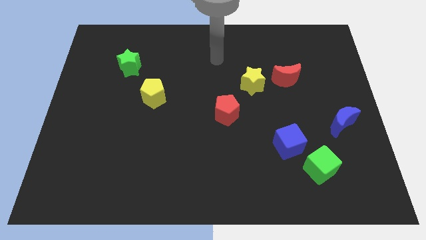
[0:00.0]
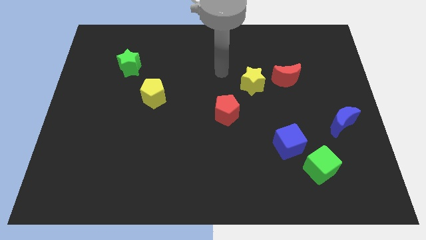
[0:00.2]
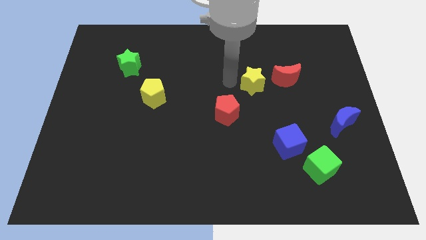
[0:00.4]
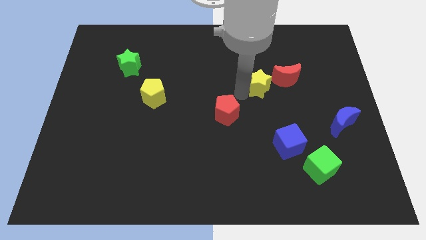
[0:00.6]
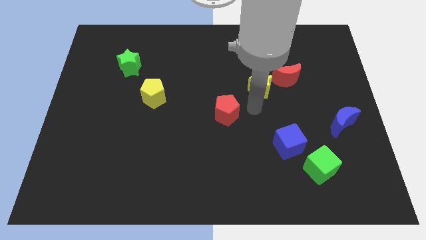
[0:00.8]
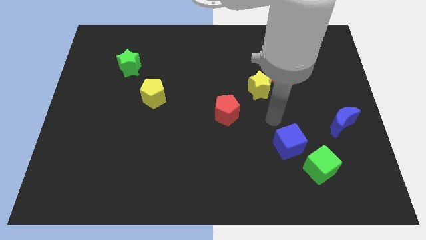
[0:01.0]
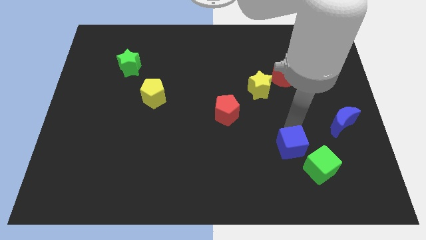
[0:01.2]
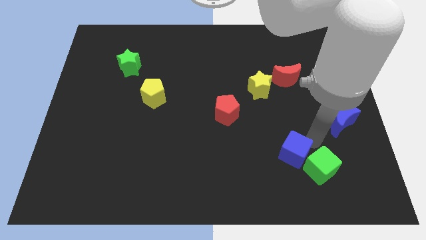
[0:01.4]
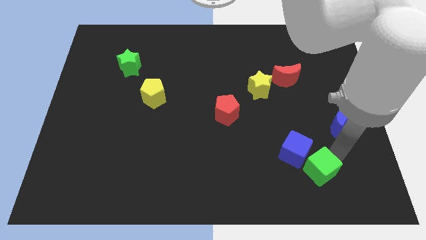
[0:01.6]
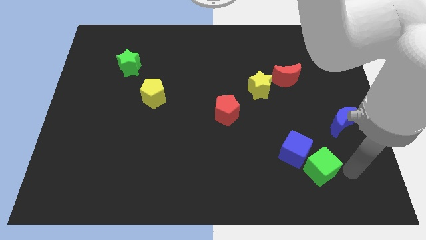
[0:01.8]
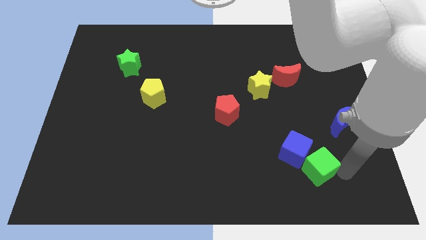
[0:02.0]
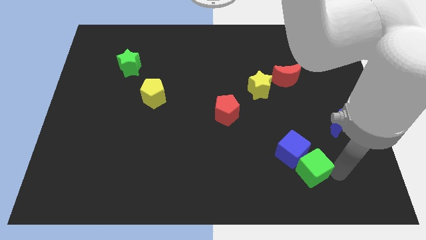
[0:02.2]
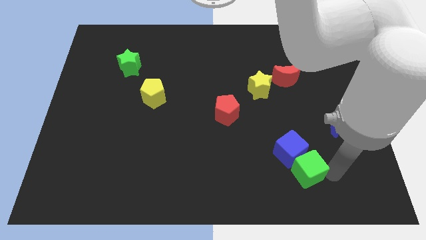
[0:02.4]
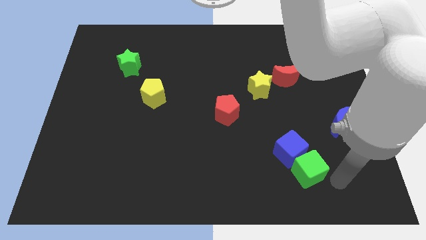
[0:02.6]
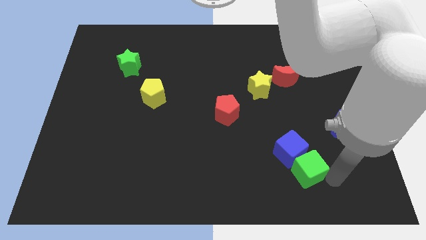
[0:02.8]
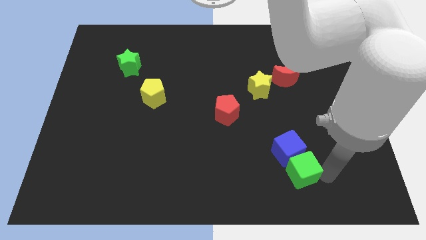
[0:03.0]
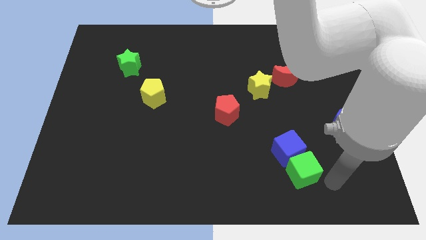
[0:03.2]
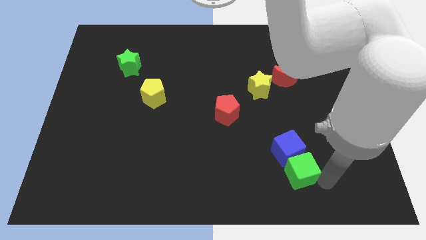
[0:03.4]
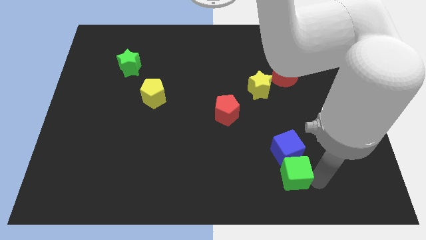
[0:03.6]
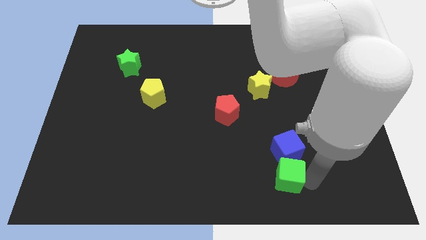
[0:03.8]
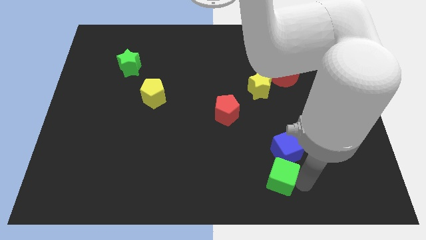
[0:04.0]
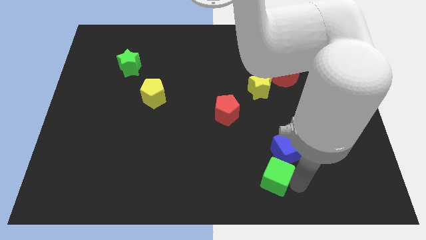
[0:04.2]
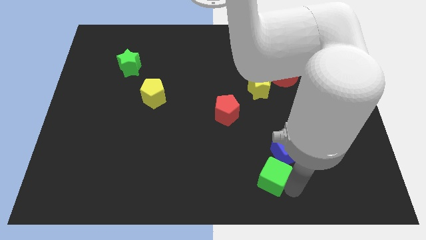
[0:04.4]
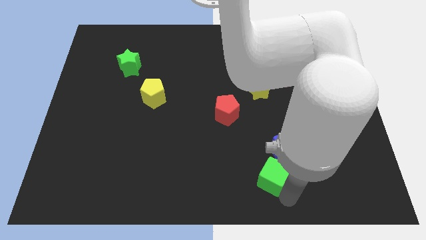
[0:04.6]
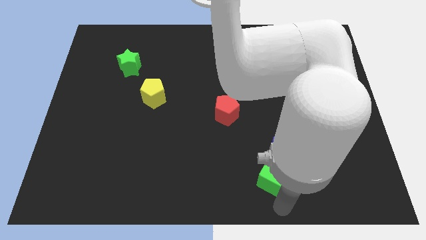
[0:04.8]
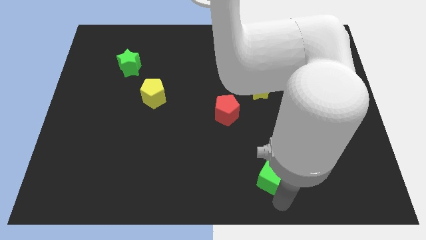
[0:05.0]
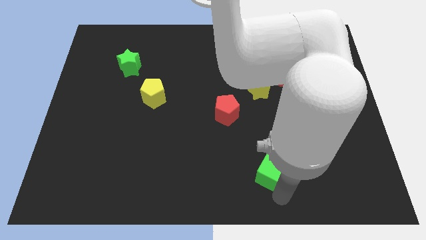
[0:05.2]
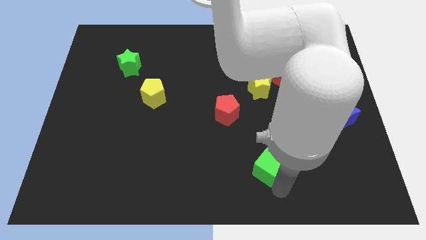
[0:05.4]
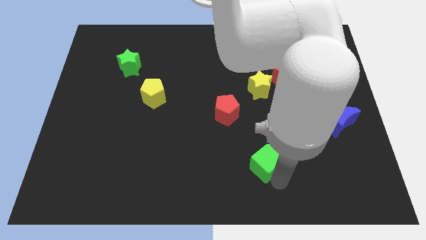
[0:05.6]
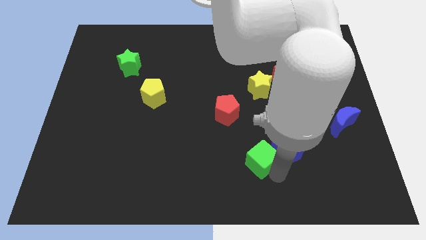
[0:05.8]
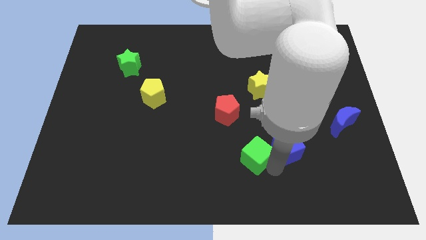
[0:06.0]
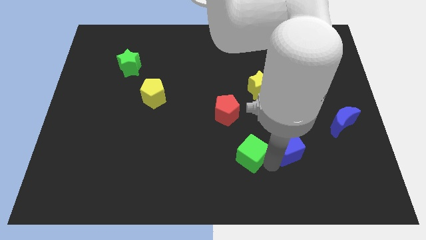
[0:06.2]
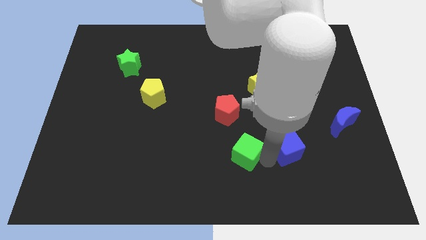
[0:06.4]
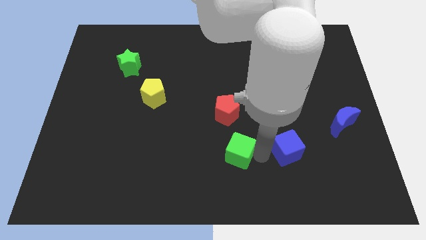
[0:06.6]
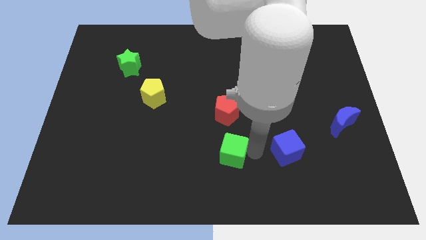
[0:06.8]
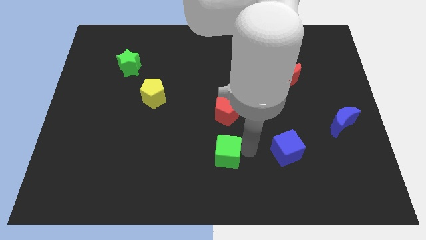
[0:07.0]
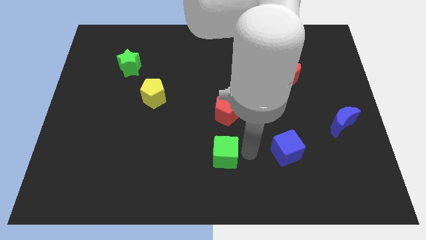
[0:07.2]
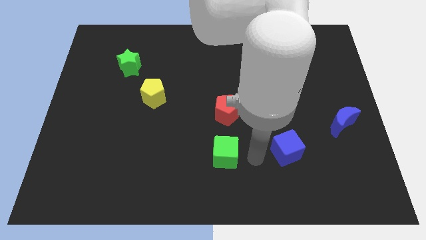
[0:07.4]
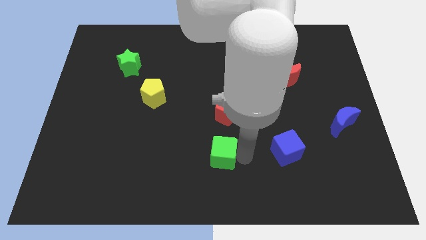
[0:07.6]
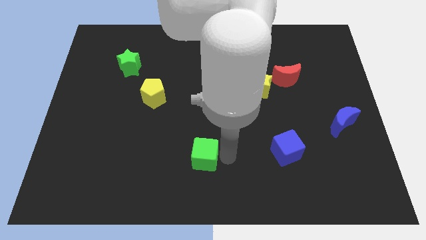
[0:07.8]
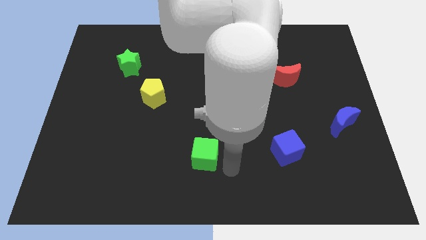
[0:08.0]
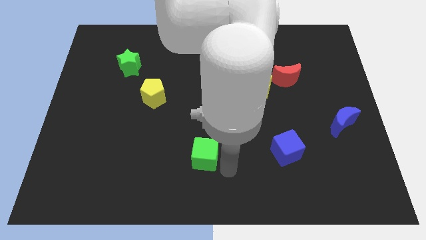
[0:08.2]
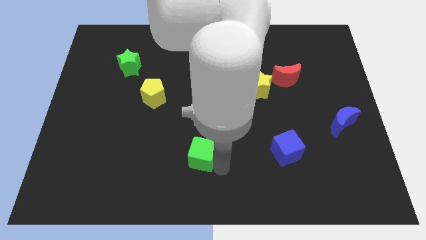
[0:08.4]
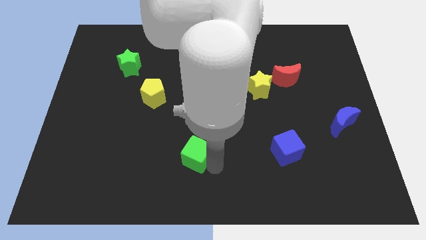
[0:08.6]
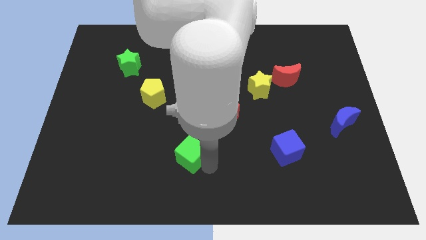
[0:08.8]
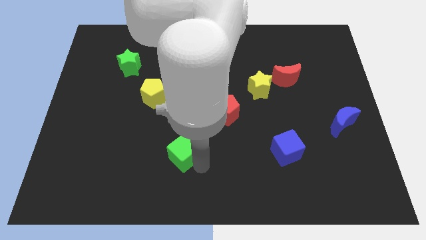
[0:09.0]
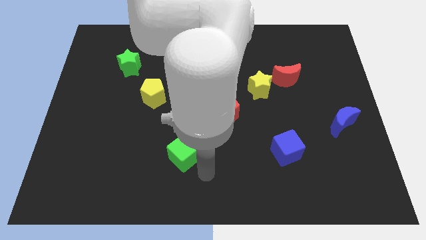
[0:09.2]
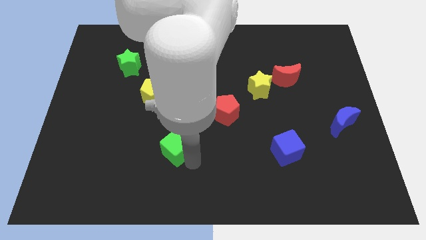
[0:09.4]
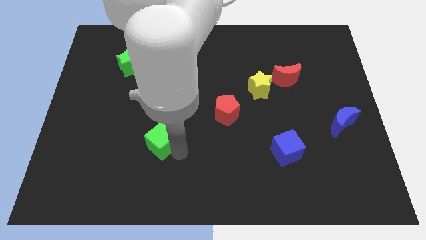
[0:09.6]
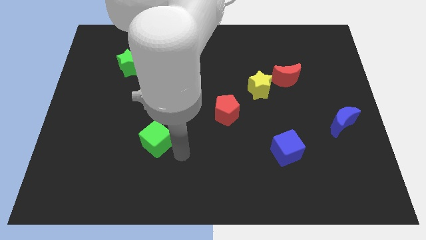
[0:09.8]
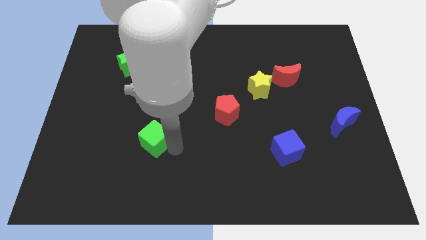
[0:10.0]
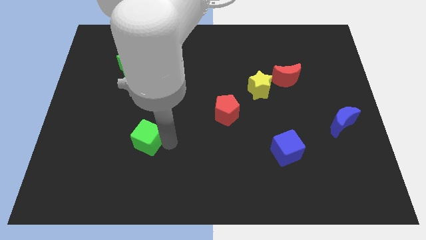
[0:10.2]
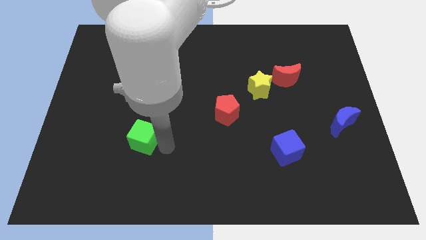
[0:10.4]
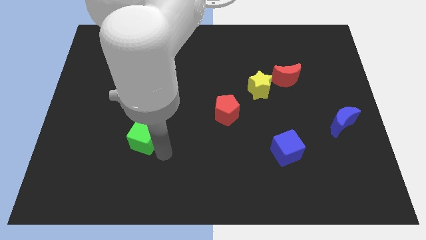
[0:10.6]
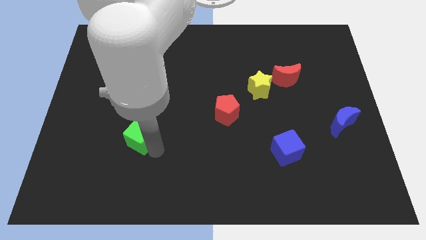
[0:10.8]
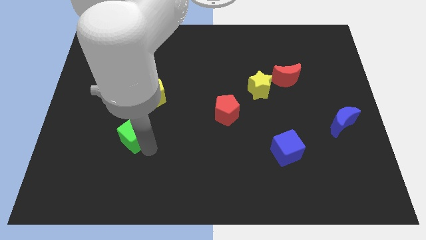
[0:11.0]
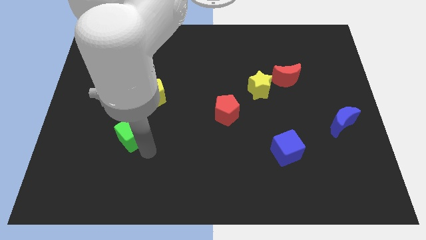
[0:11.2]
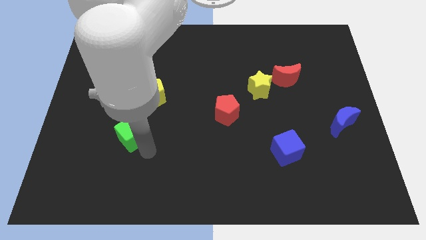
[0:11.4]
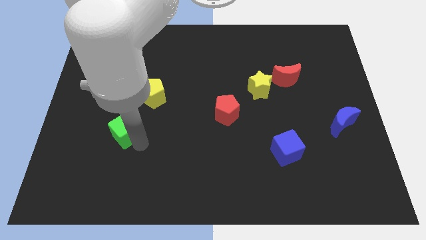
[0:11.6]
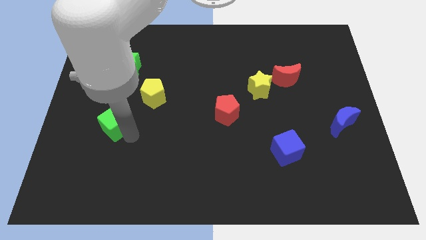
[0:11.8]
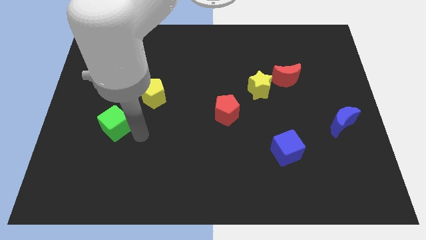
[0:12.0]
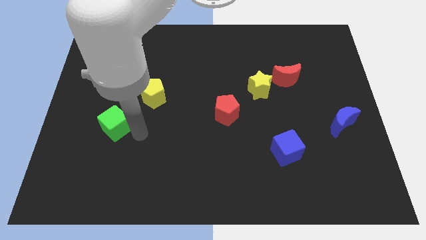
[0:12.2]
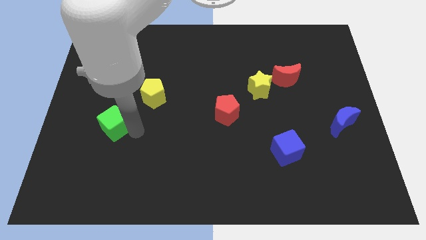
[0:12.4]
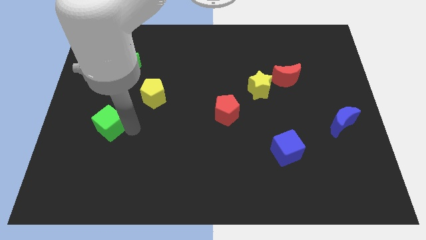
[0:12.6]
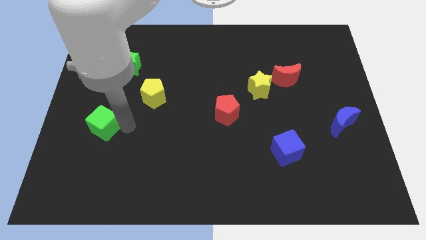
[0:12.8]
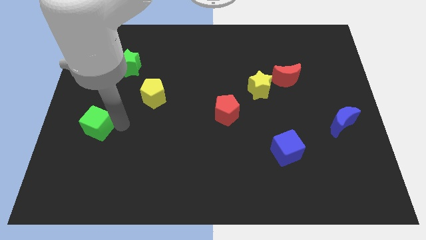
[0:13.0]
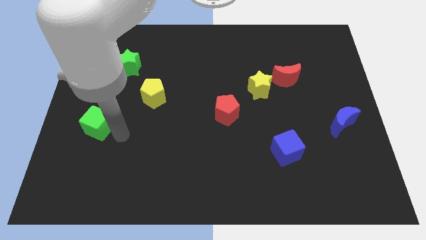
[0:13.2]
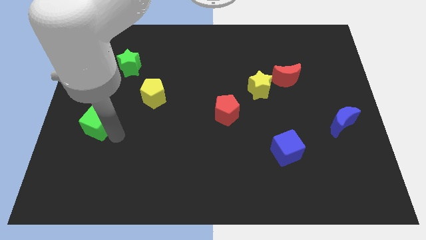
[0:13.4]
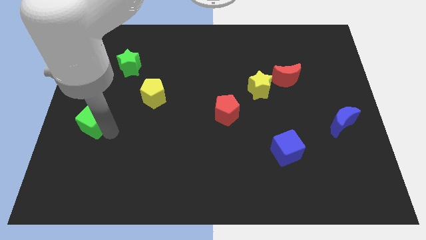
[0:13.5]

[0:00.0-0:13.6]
slide the green cube to the left side of the board
